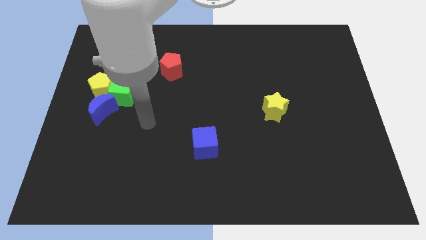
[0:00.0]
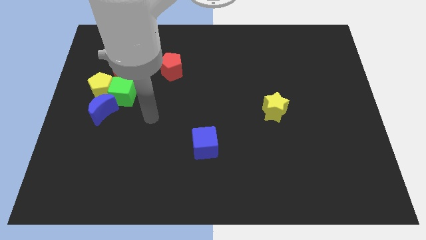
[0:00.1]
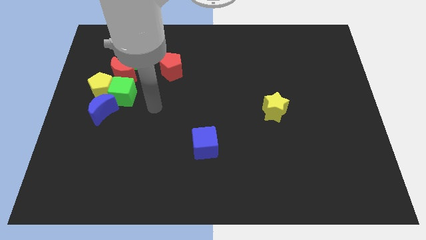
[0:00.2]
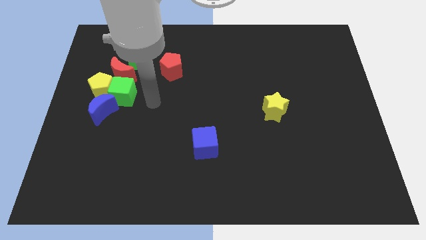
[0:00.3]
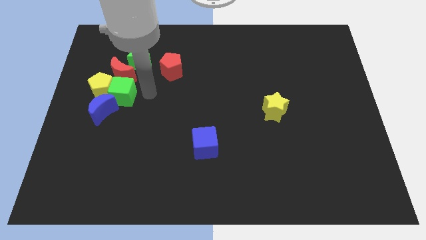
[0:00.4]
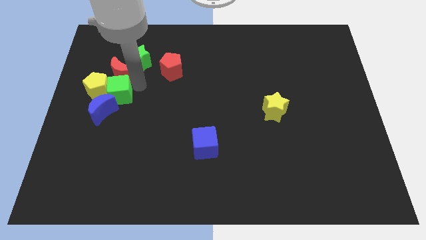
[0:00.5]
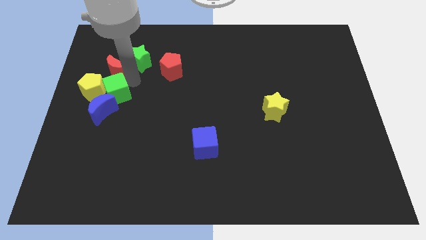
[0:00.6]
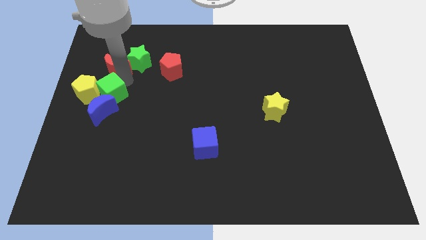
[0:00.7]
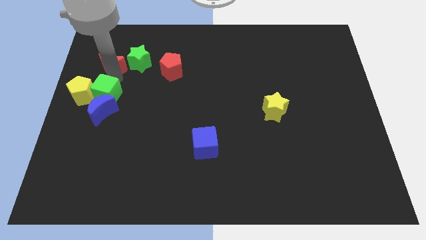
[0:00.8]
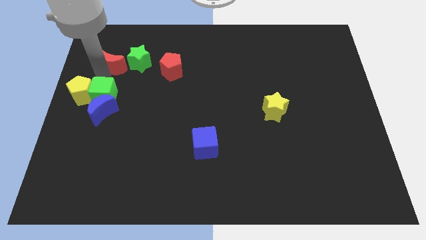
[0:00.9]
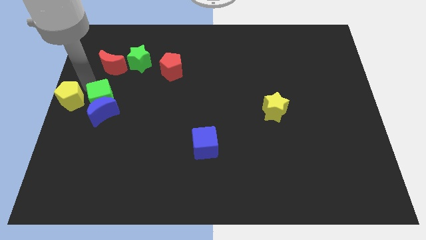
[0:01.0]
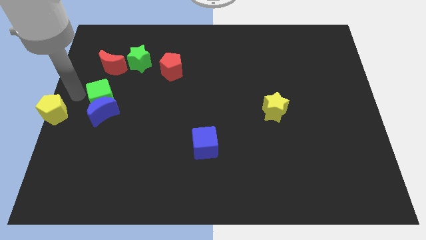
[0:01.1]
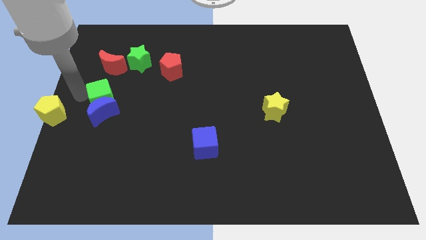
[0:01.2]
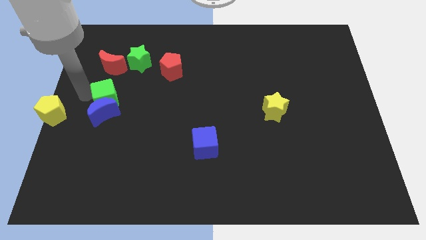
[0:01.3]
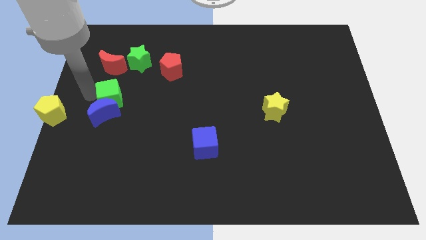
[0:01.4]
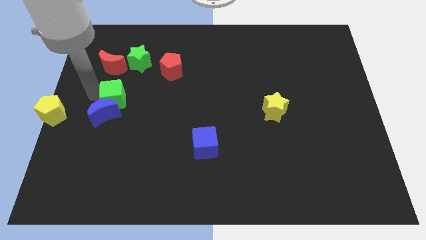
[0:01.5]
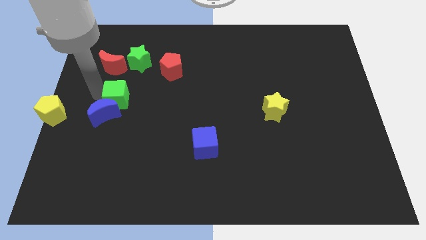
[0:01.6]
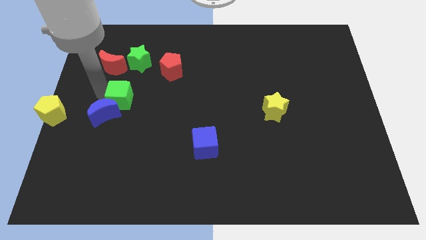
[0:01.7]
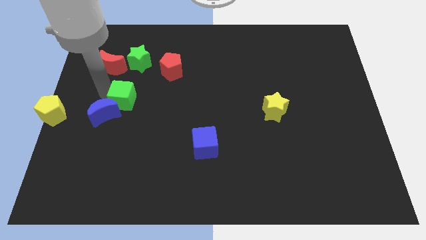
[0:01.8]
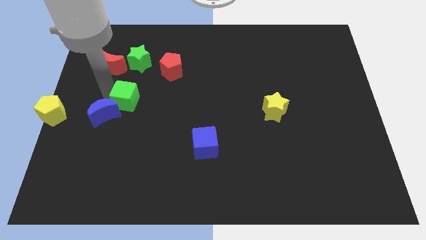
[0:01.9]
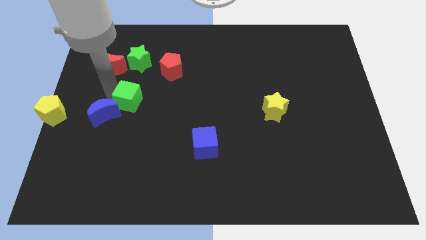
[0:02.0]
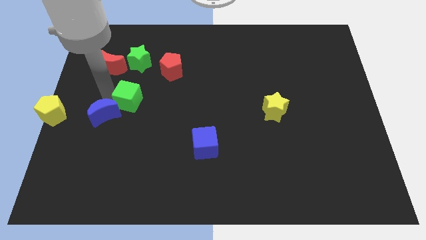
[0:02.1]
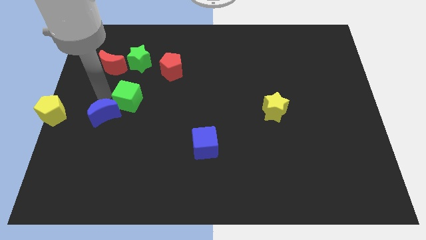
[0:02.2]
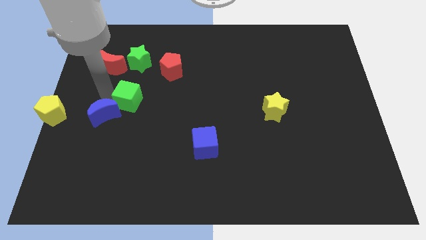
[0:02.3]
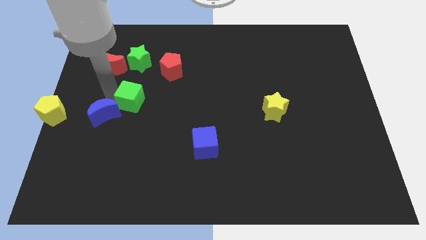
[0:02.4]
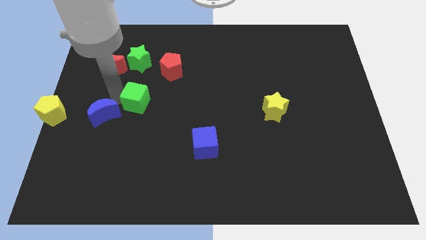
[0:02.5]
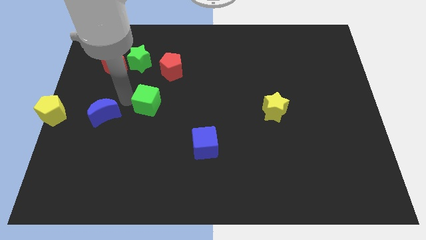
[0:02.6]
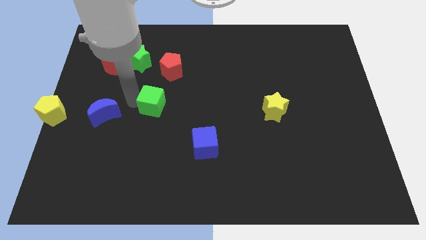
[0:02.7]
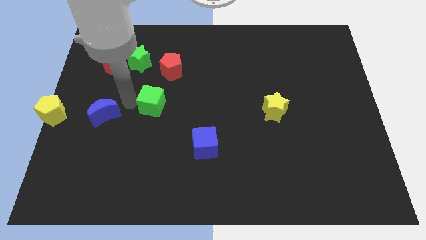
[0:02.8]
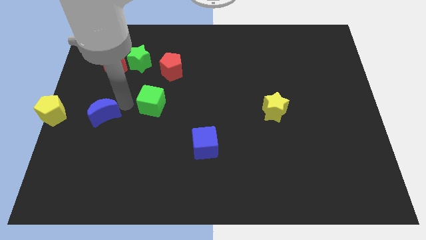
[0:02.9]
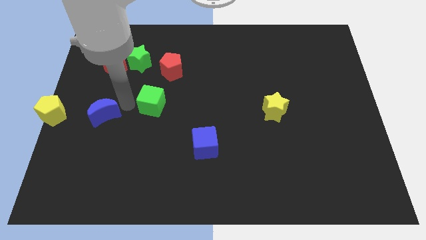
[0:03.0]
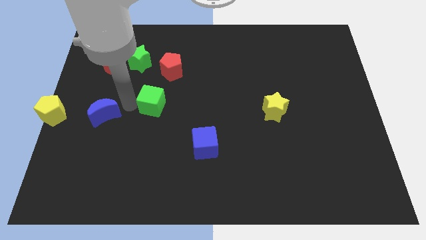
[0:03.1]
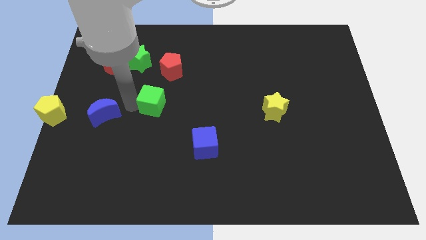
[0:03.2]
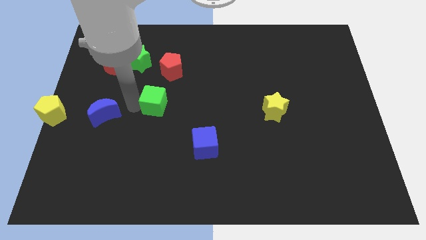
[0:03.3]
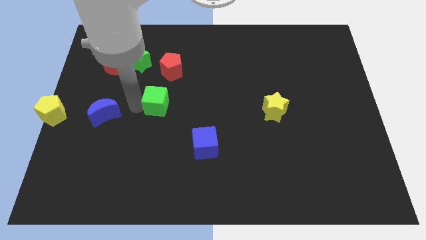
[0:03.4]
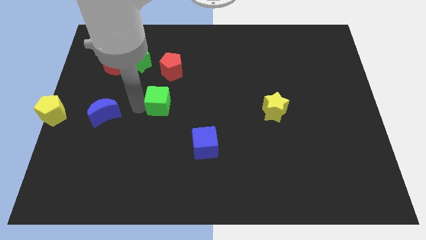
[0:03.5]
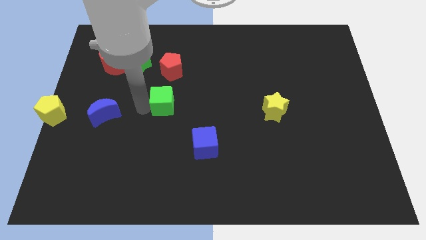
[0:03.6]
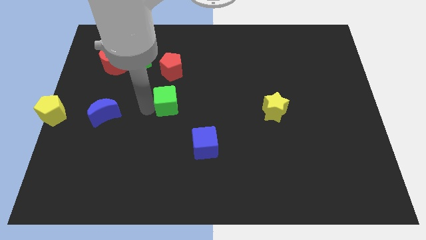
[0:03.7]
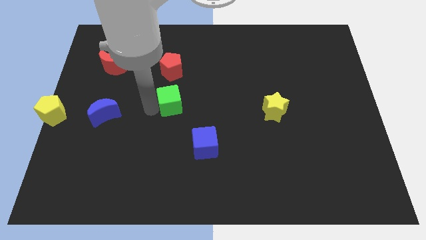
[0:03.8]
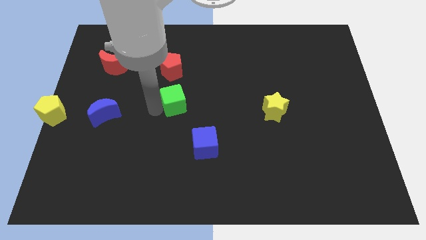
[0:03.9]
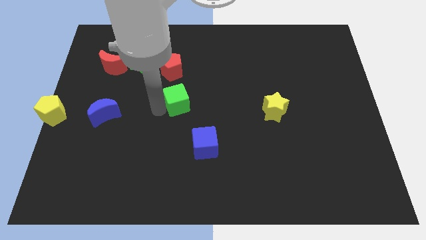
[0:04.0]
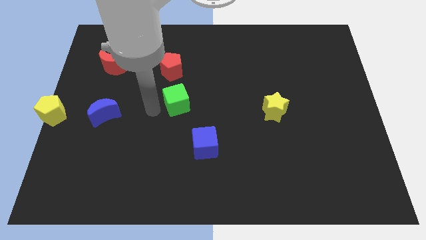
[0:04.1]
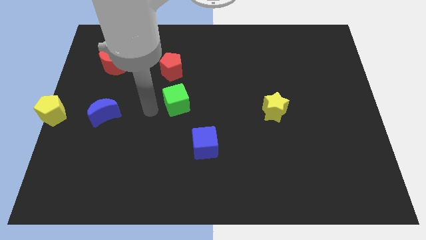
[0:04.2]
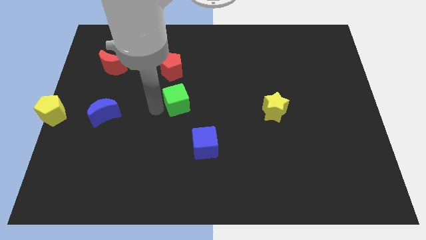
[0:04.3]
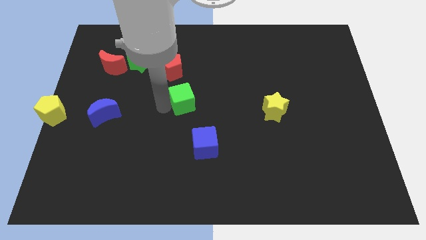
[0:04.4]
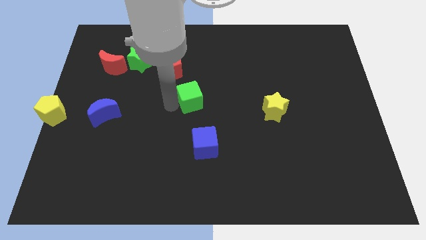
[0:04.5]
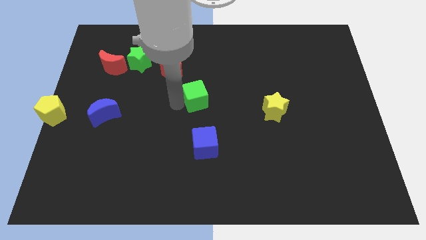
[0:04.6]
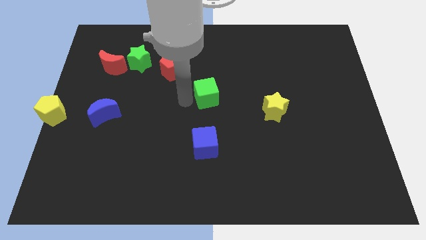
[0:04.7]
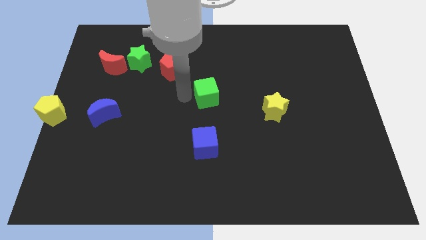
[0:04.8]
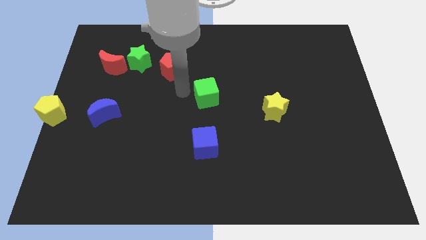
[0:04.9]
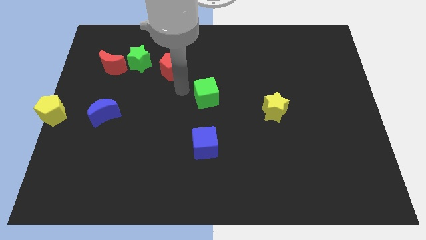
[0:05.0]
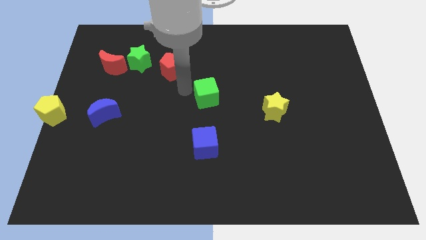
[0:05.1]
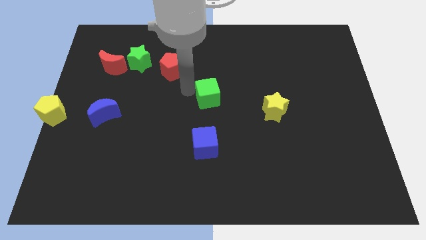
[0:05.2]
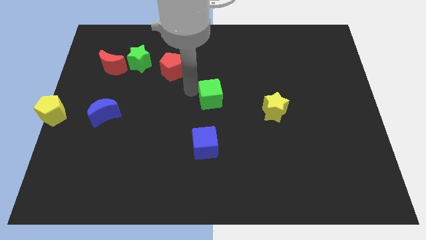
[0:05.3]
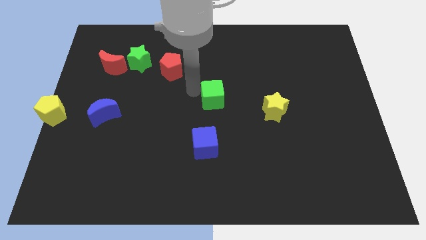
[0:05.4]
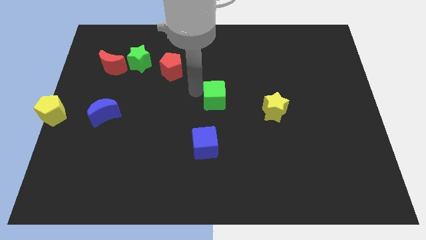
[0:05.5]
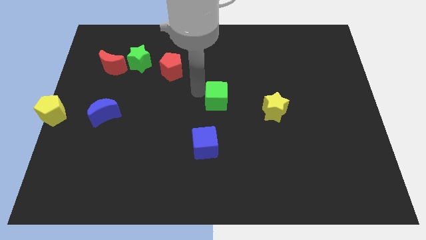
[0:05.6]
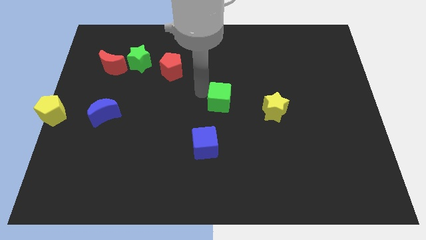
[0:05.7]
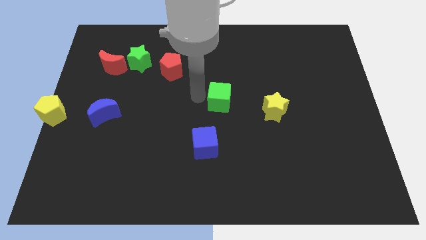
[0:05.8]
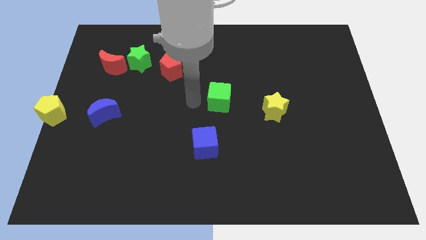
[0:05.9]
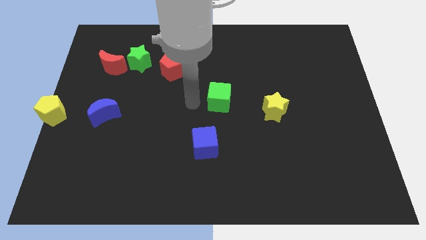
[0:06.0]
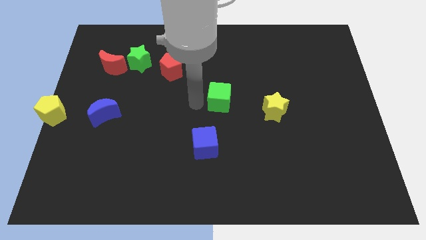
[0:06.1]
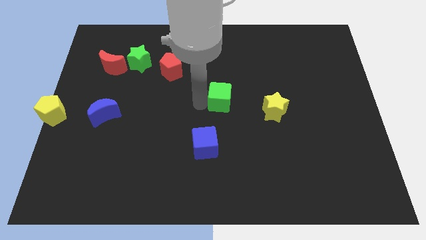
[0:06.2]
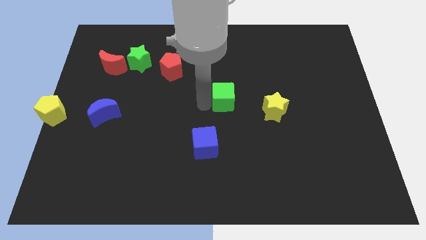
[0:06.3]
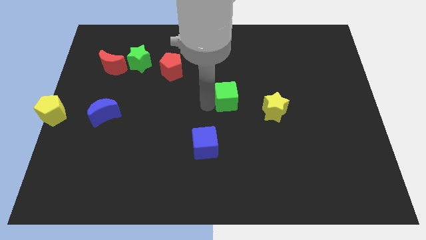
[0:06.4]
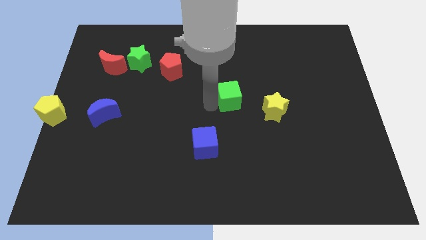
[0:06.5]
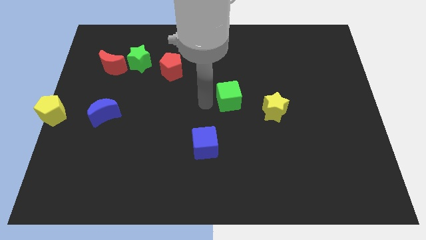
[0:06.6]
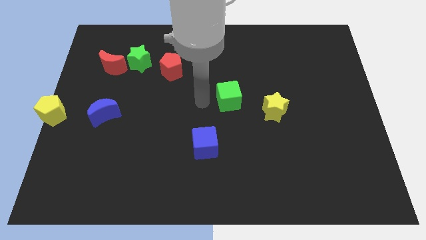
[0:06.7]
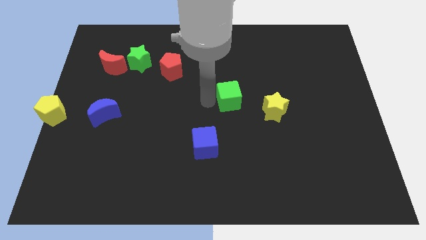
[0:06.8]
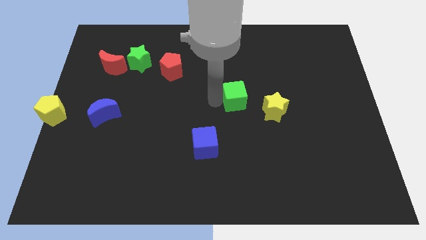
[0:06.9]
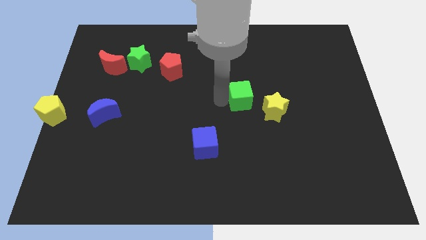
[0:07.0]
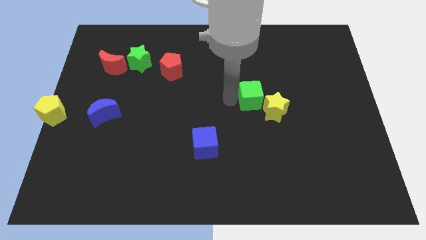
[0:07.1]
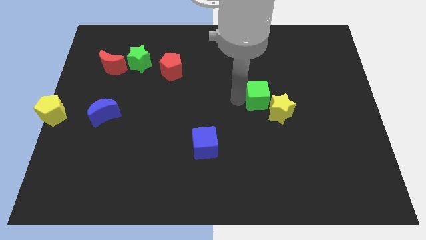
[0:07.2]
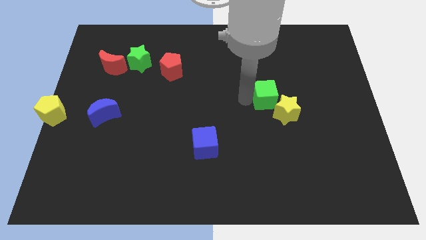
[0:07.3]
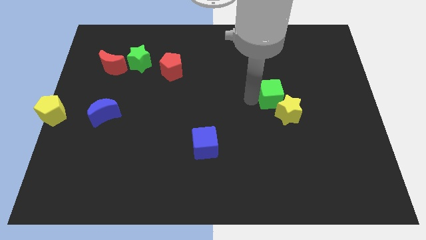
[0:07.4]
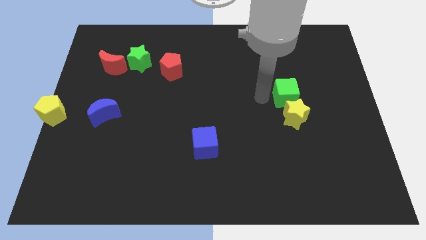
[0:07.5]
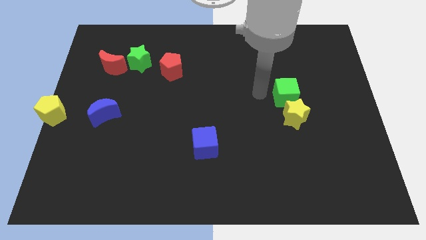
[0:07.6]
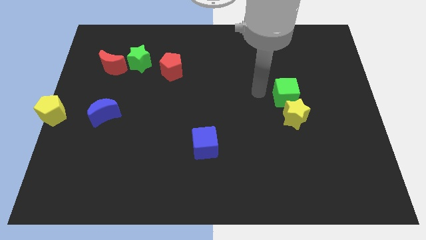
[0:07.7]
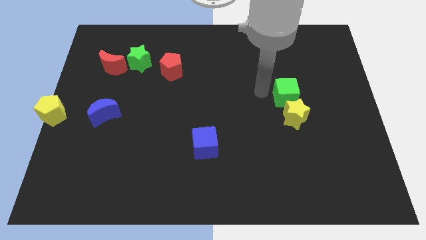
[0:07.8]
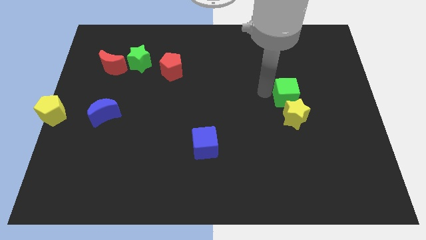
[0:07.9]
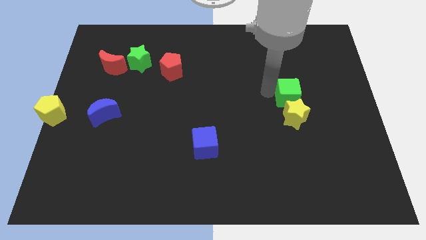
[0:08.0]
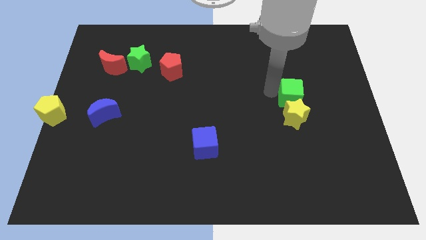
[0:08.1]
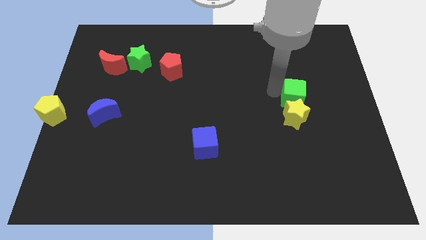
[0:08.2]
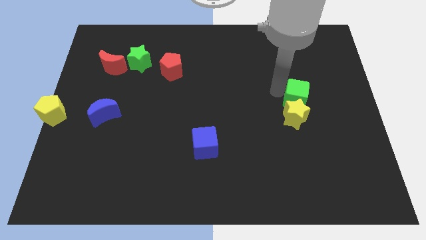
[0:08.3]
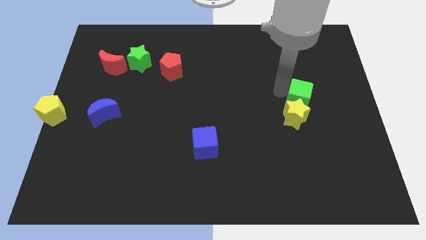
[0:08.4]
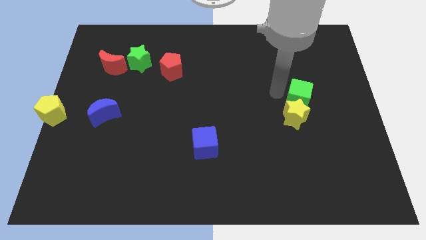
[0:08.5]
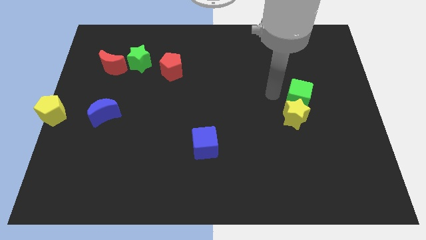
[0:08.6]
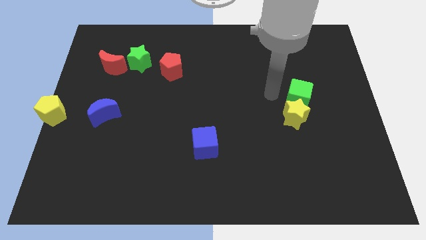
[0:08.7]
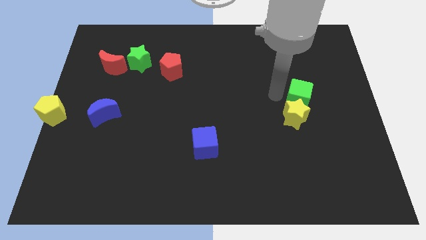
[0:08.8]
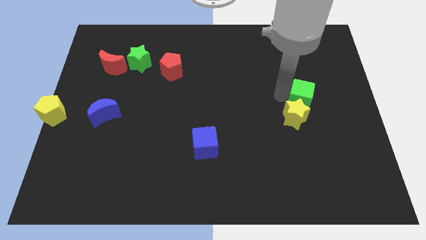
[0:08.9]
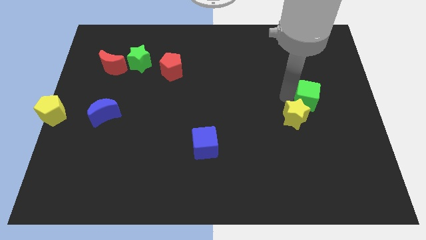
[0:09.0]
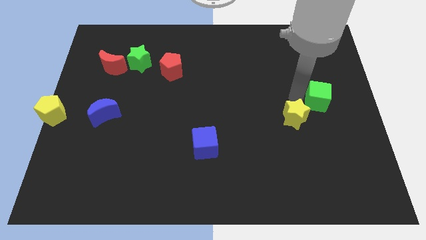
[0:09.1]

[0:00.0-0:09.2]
slide the green cube to the right side of the board
